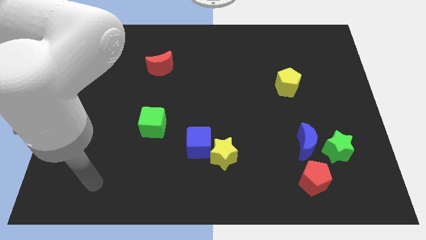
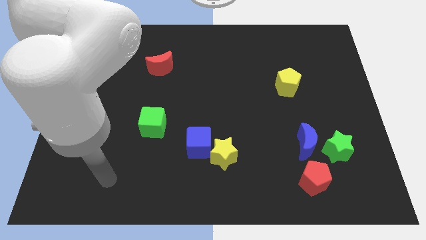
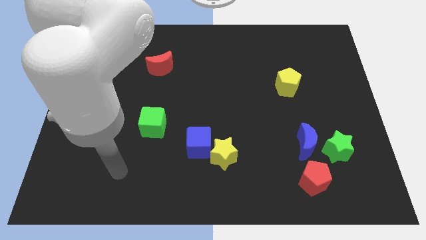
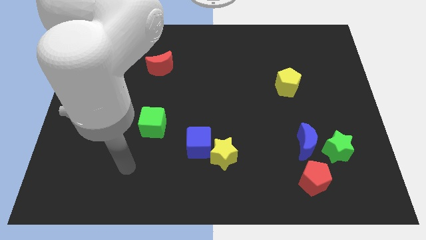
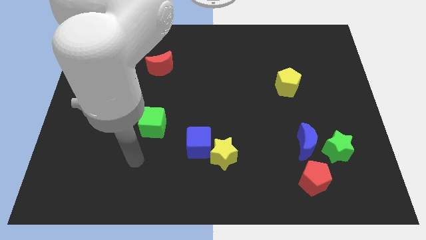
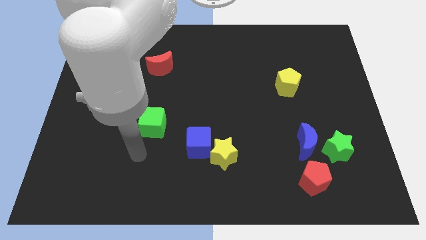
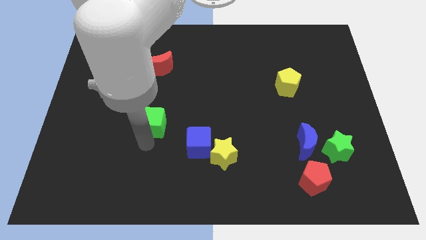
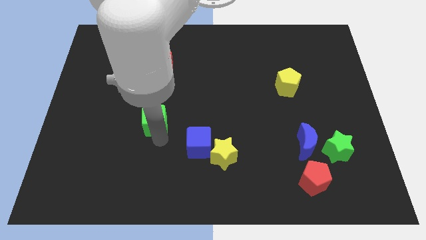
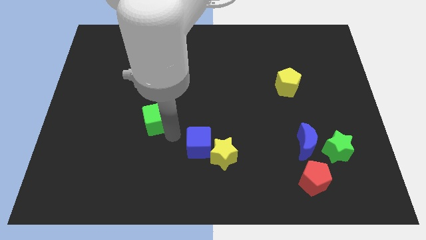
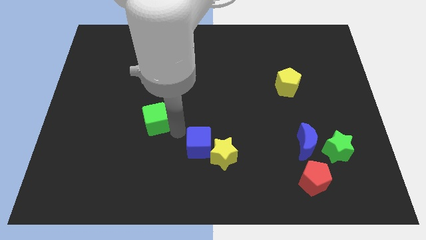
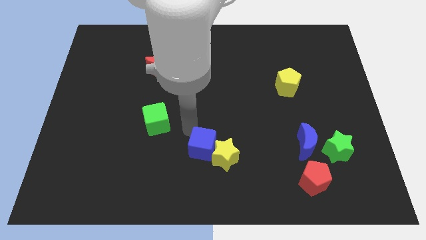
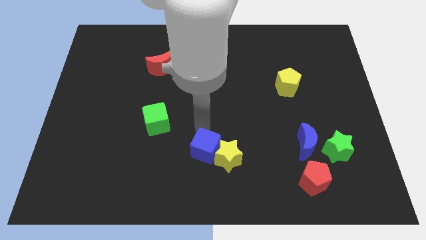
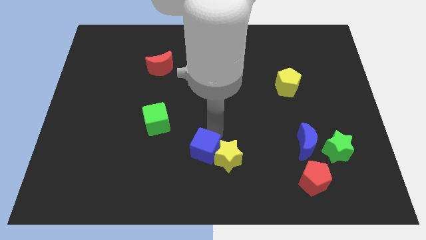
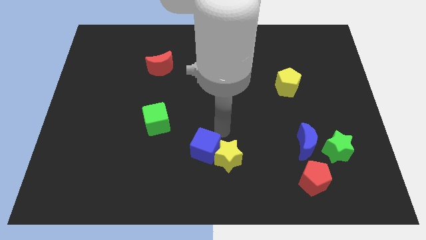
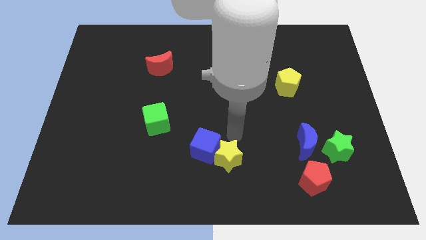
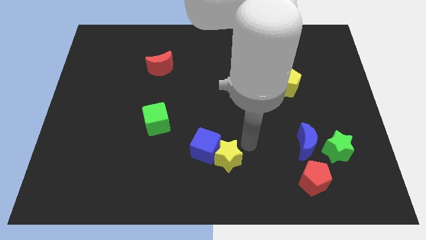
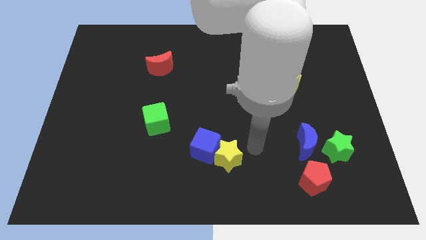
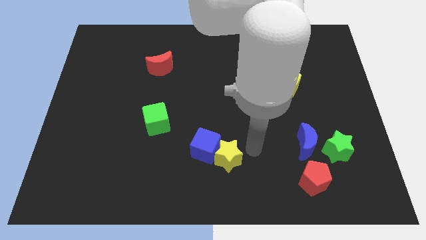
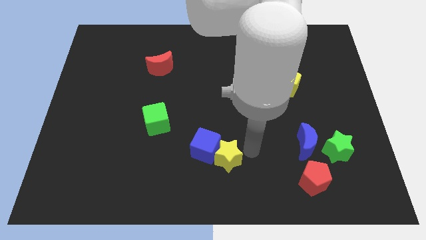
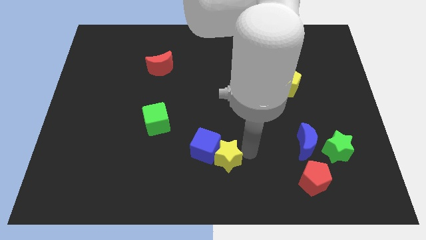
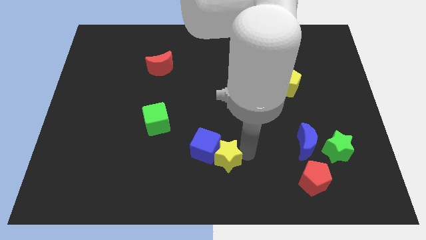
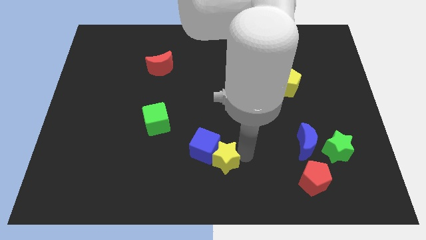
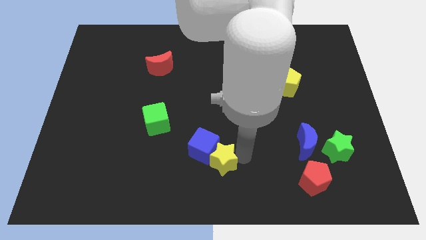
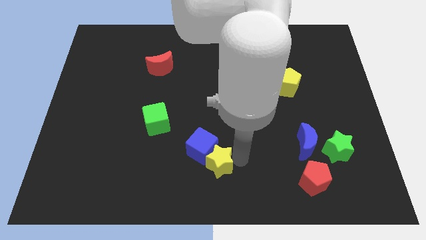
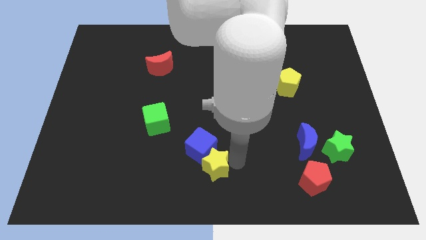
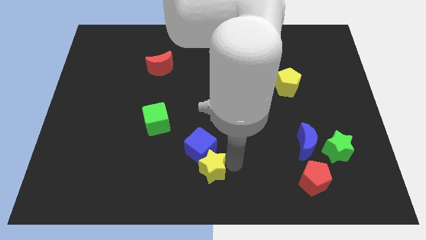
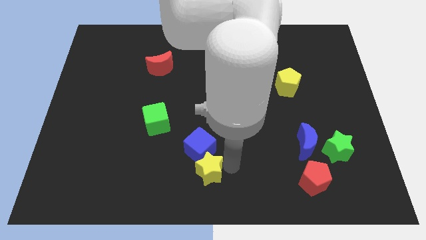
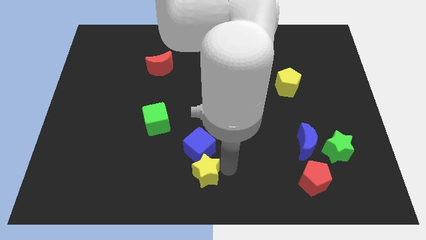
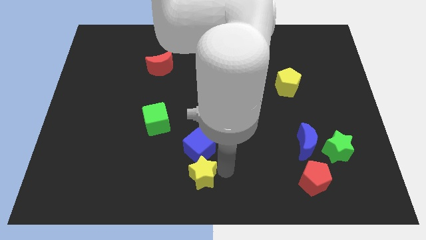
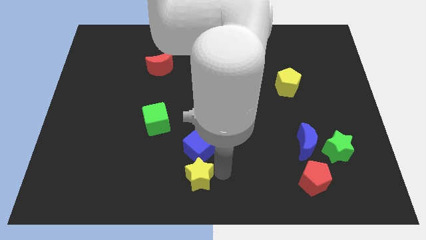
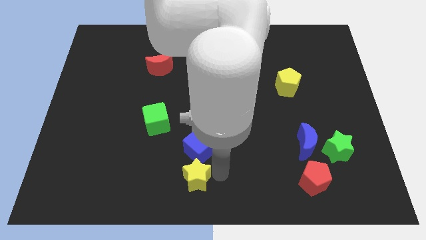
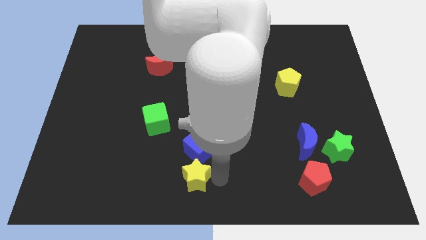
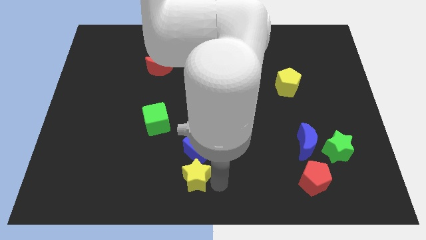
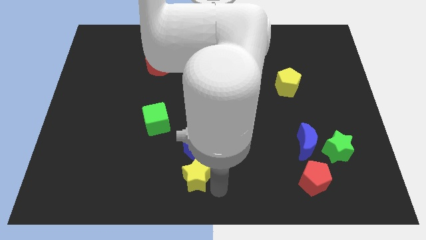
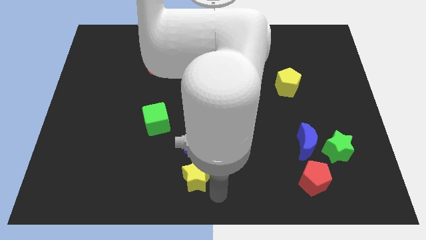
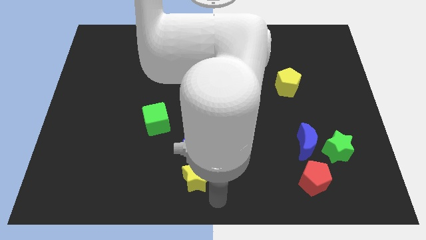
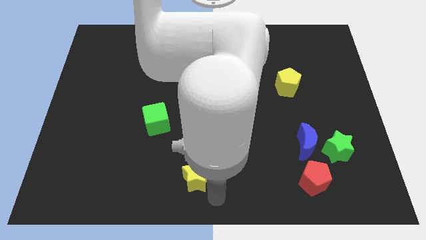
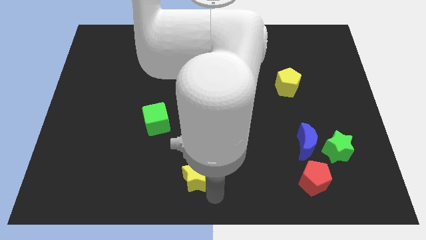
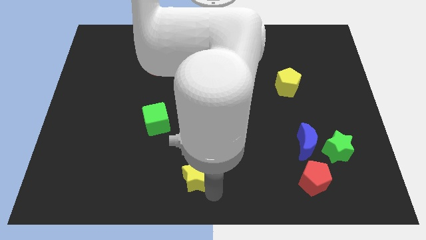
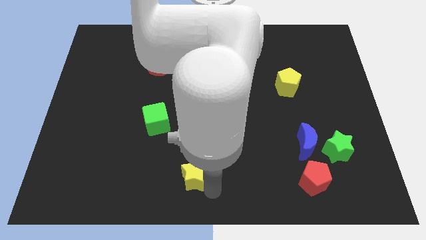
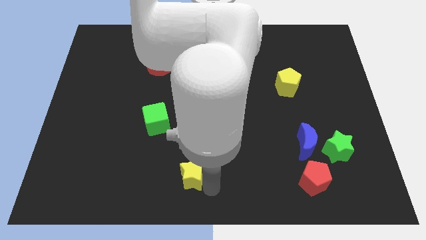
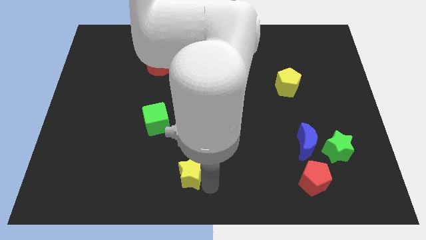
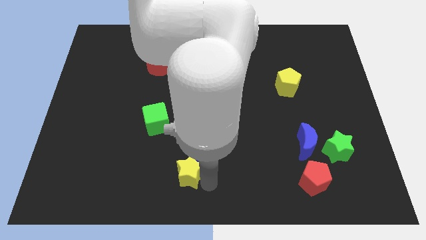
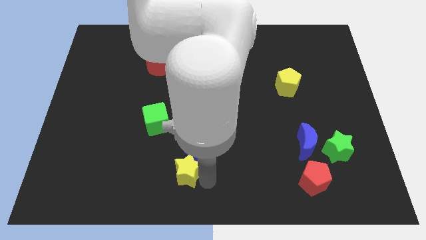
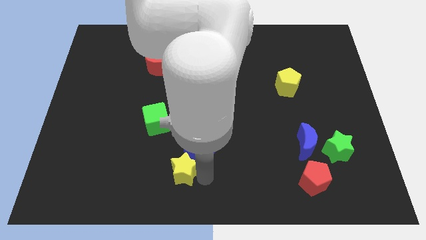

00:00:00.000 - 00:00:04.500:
slightly push the yellow star to the left

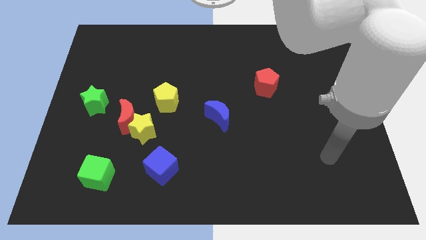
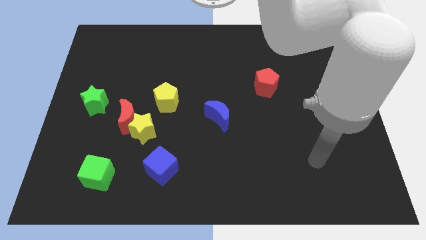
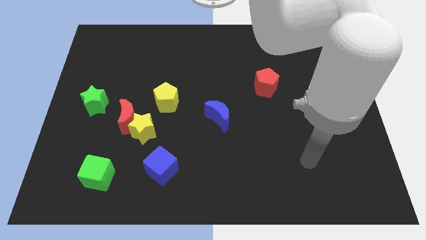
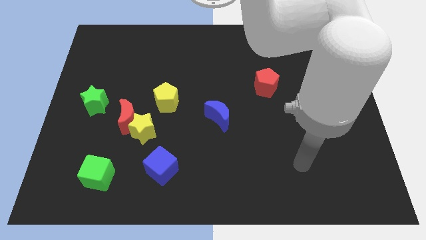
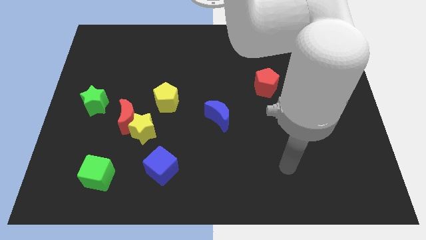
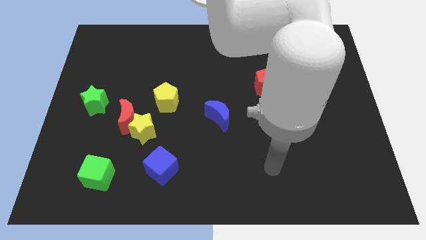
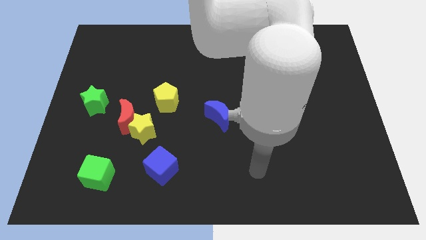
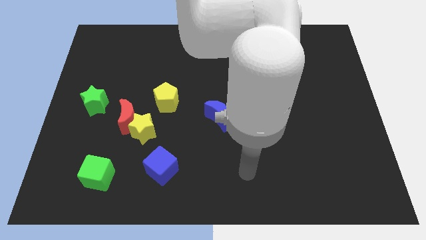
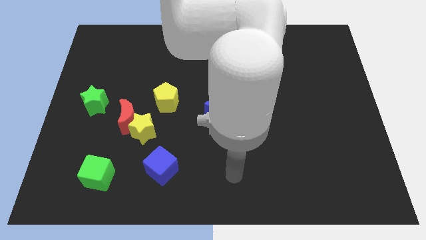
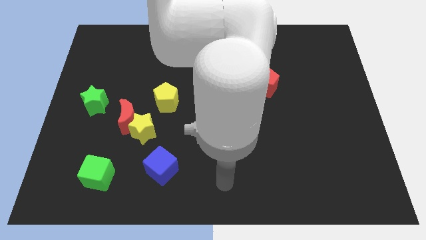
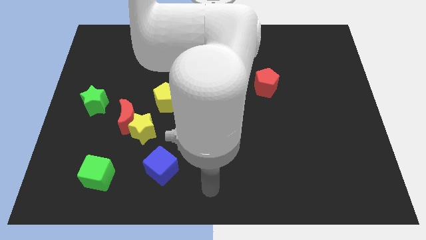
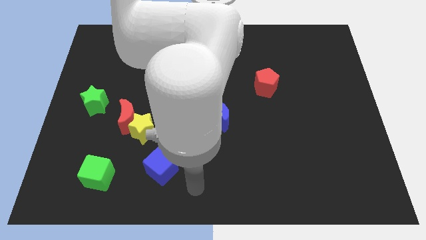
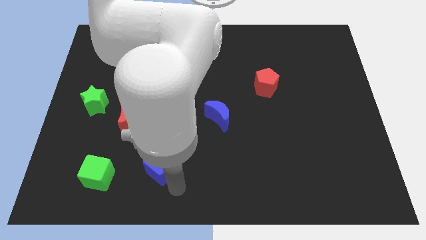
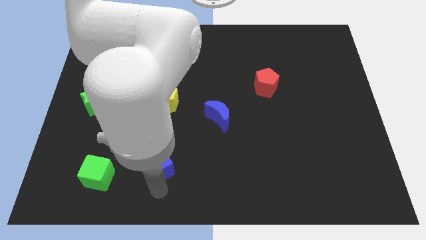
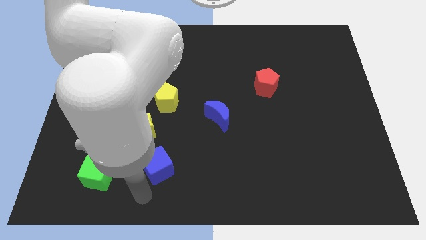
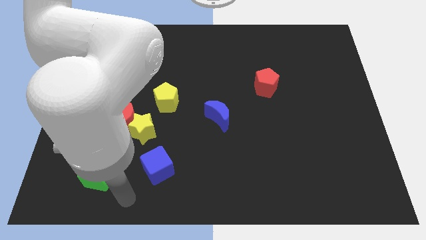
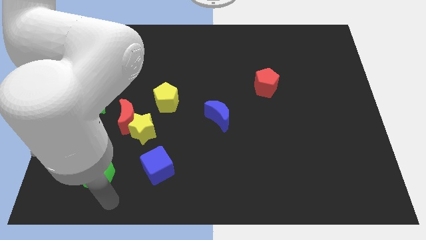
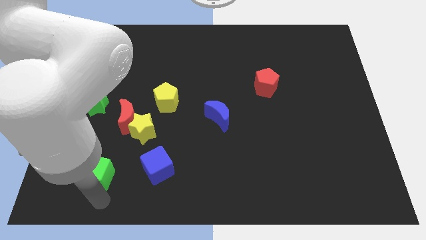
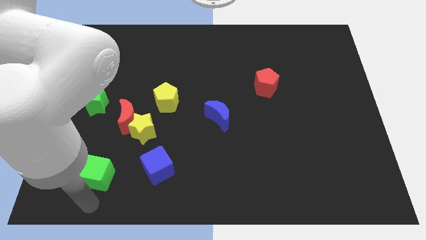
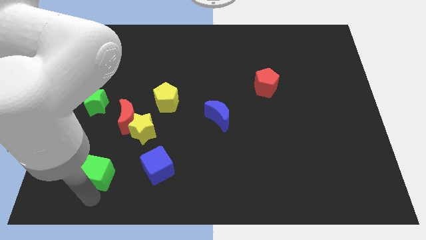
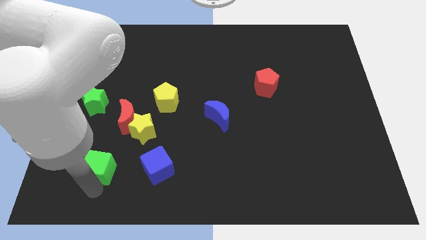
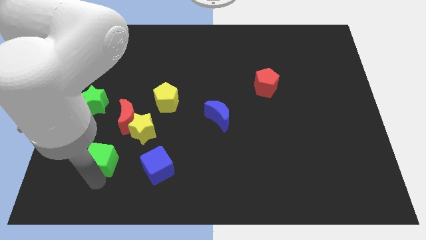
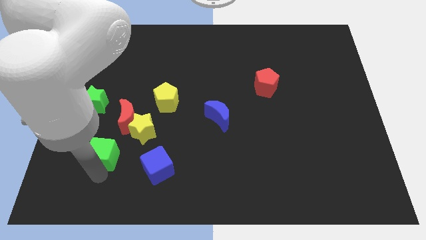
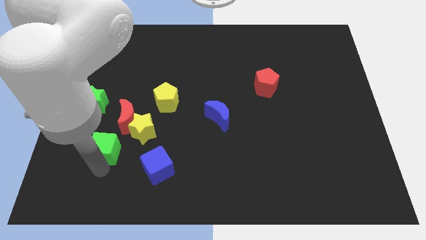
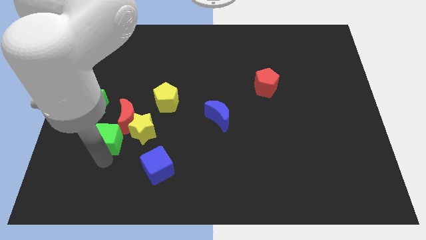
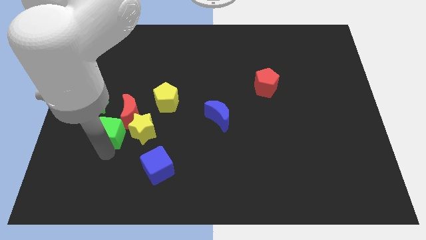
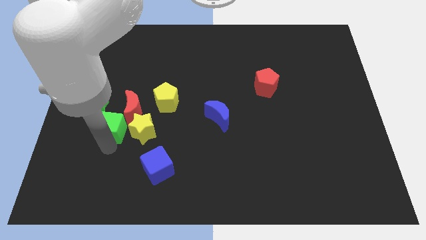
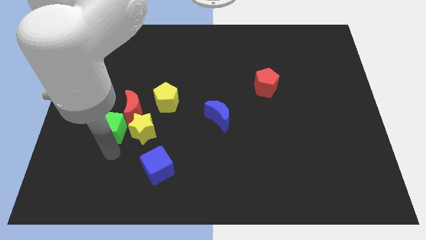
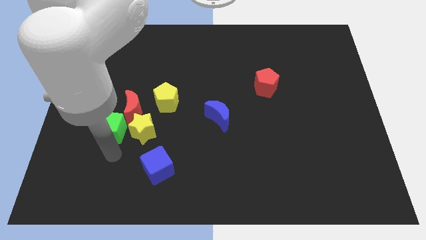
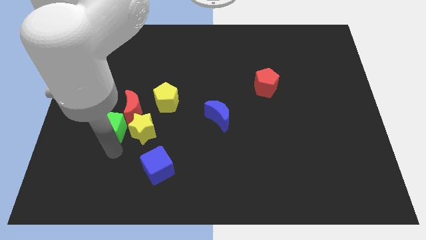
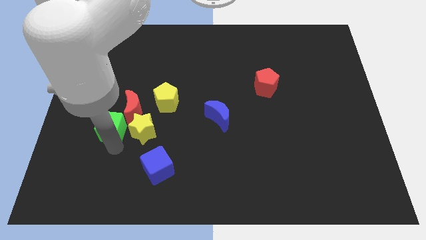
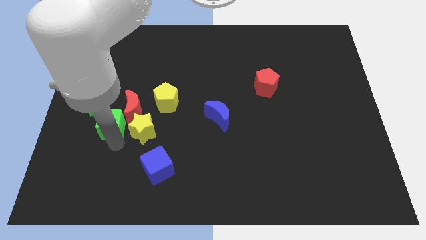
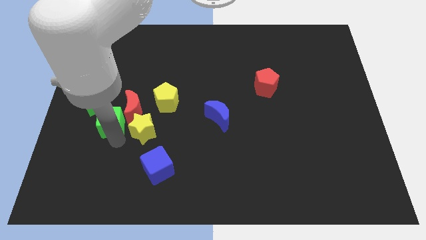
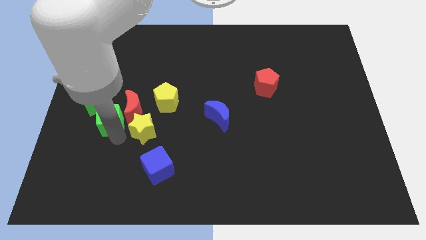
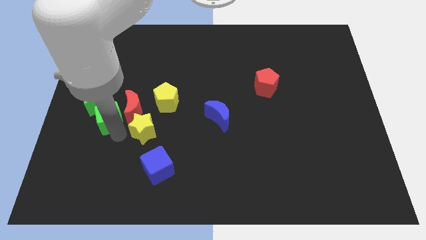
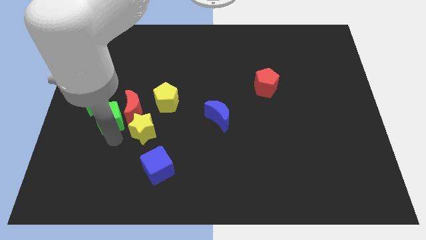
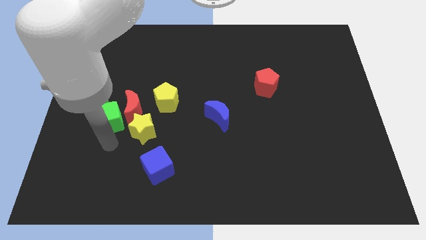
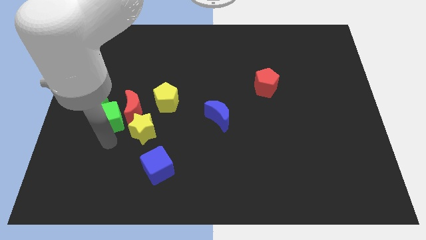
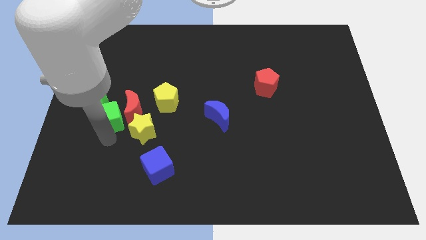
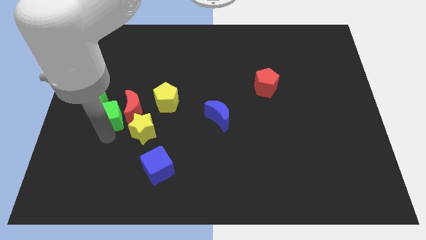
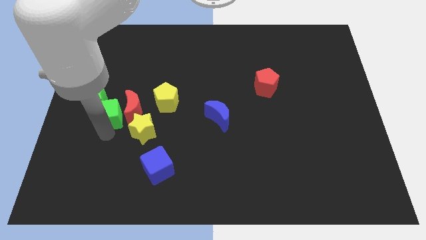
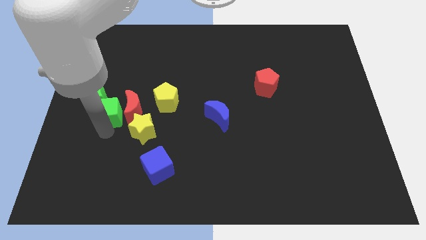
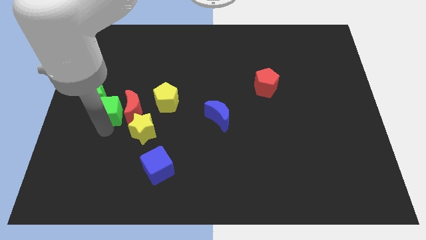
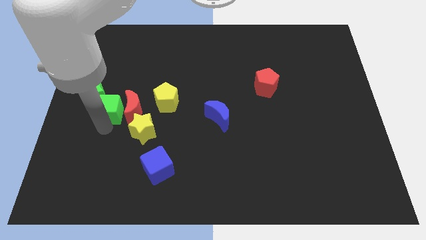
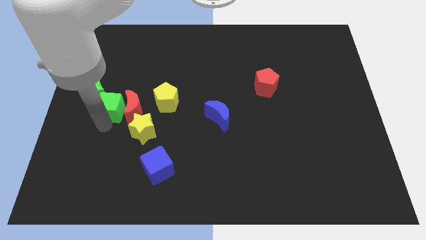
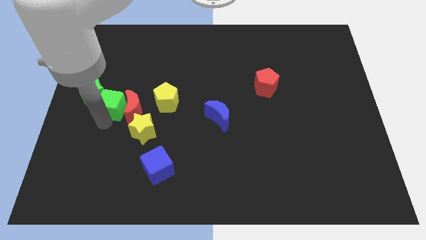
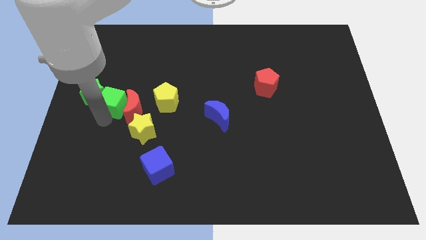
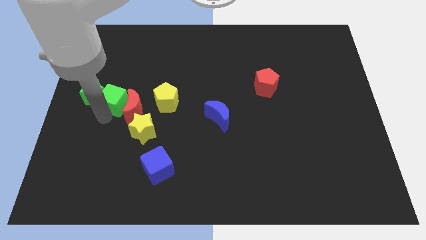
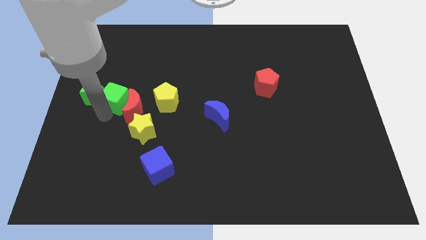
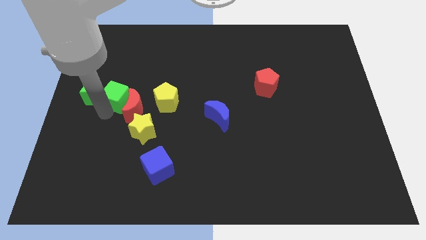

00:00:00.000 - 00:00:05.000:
push the green cube up
